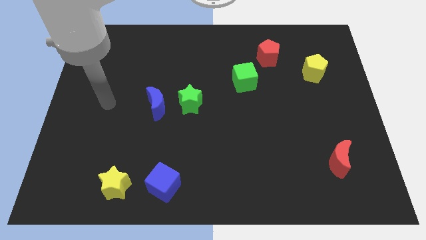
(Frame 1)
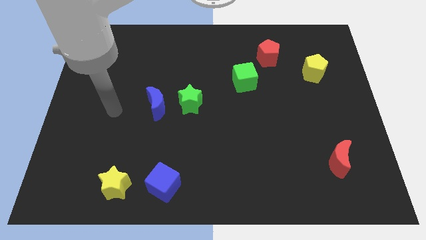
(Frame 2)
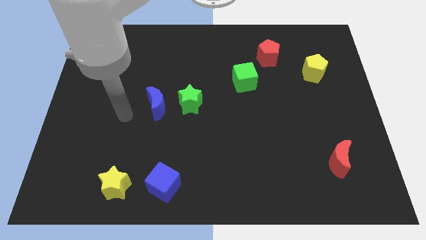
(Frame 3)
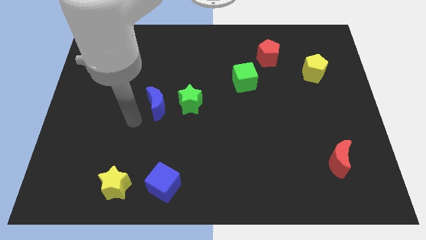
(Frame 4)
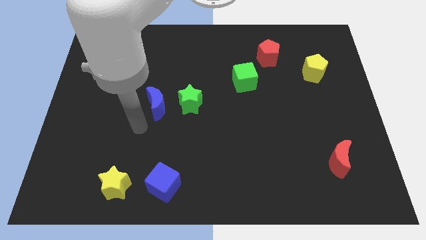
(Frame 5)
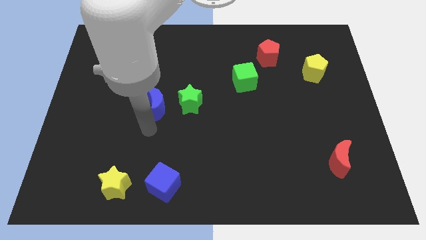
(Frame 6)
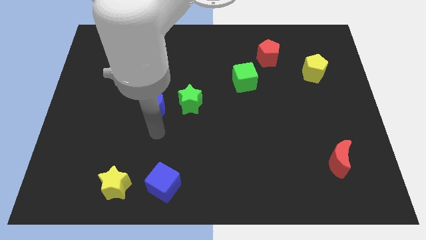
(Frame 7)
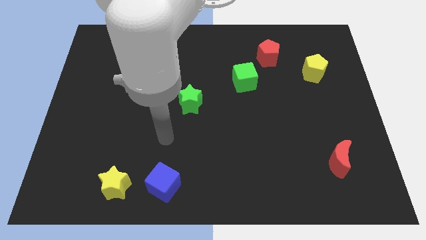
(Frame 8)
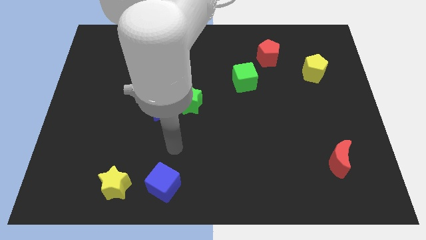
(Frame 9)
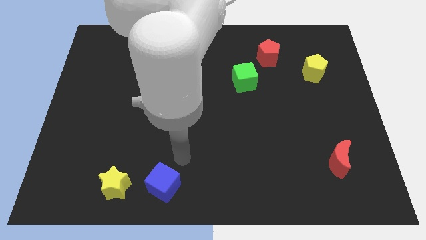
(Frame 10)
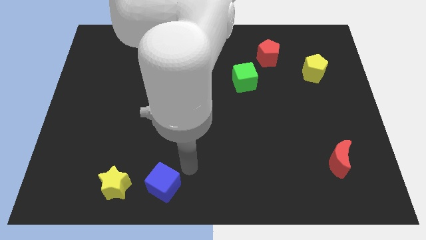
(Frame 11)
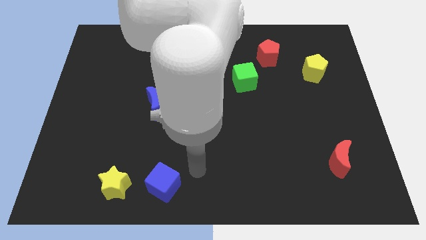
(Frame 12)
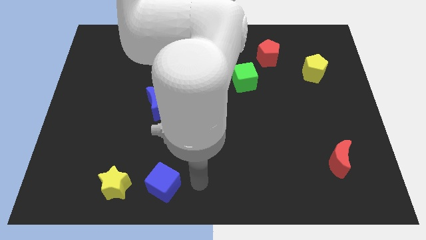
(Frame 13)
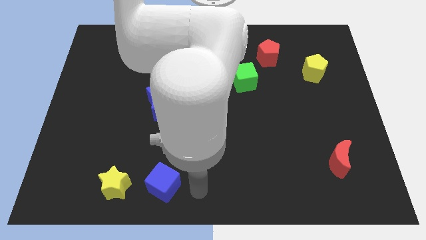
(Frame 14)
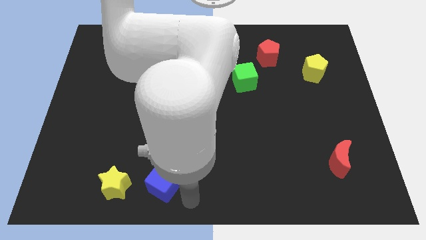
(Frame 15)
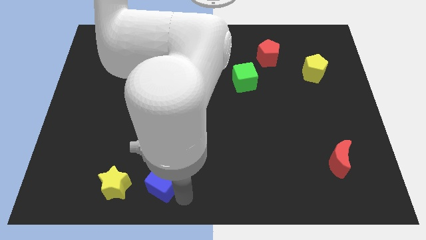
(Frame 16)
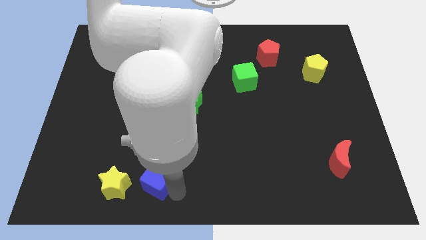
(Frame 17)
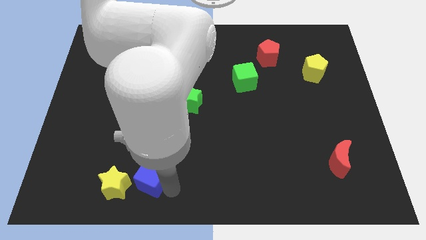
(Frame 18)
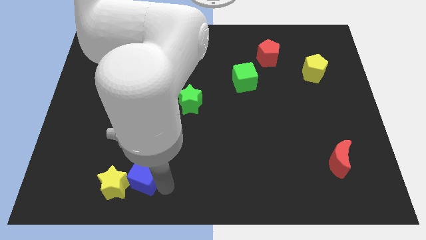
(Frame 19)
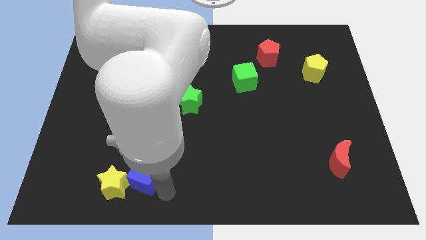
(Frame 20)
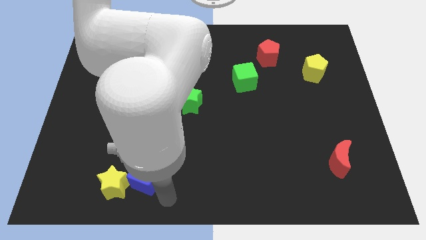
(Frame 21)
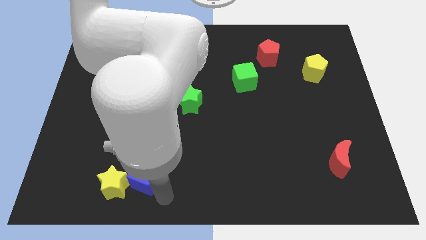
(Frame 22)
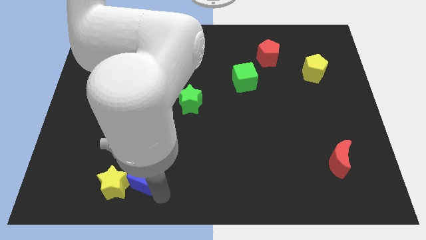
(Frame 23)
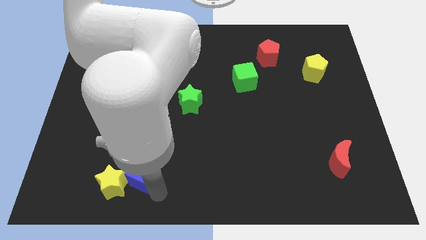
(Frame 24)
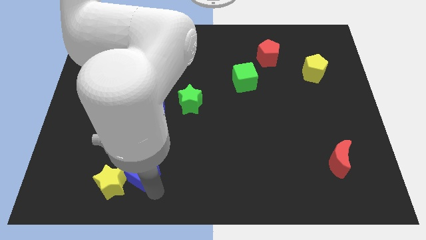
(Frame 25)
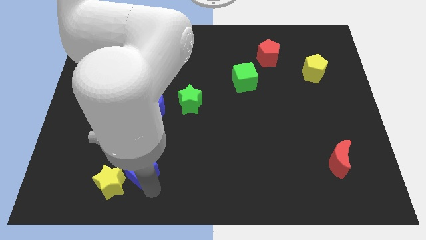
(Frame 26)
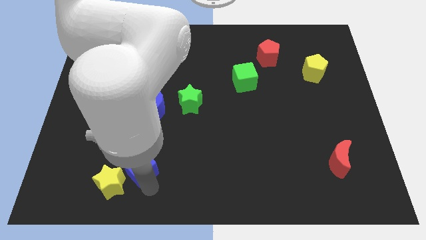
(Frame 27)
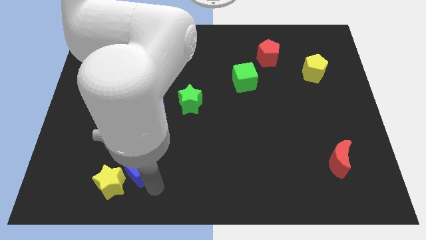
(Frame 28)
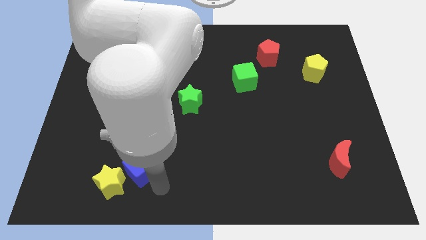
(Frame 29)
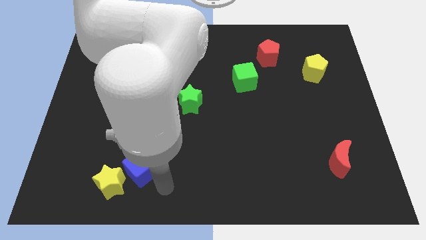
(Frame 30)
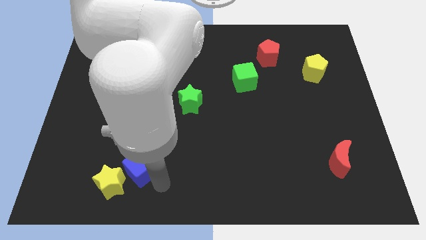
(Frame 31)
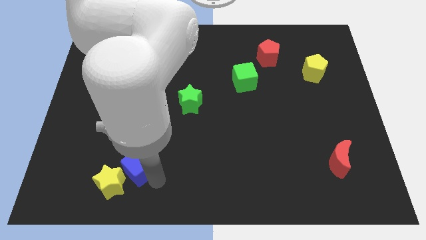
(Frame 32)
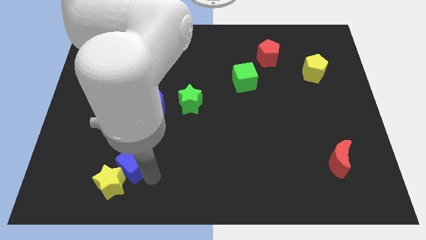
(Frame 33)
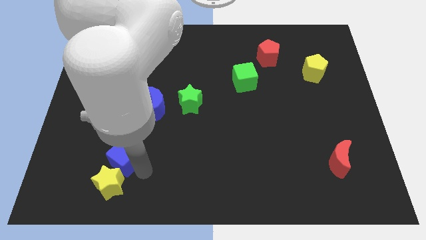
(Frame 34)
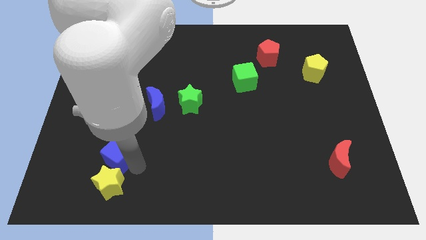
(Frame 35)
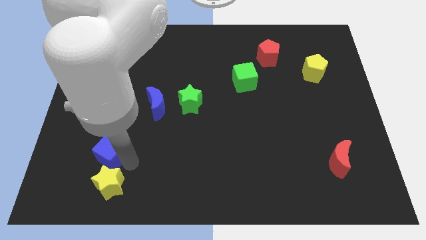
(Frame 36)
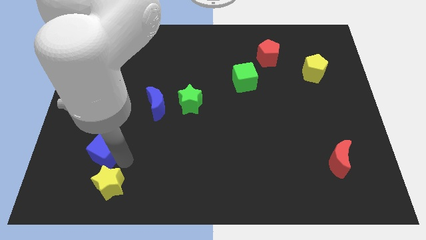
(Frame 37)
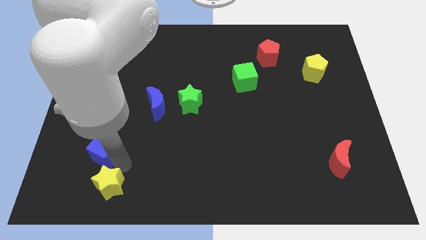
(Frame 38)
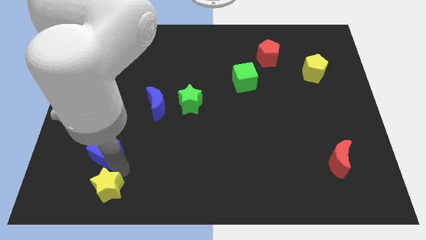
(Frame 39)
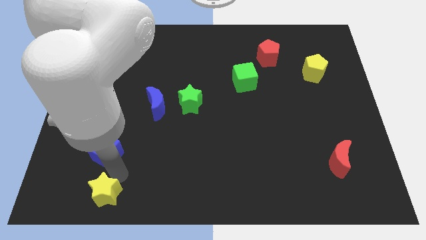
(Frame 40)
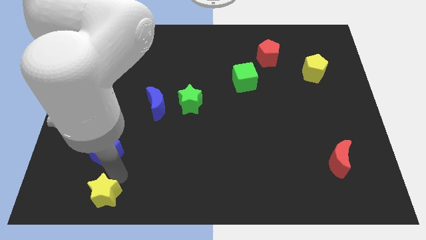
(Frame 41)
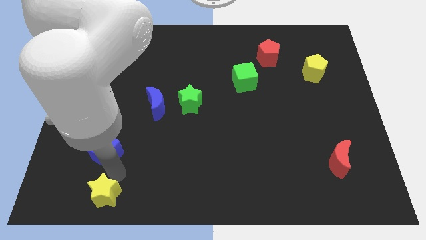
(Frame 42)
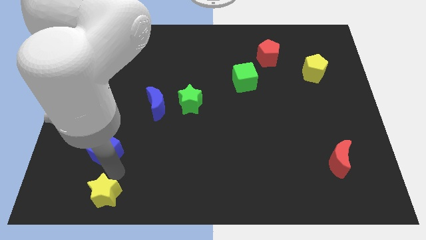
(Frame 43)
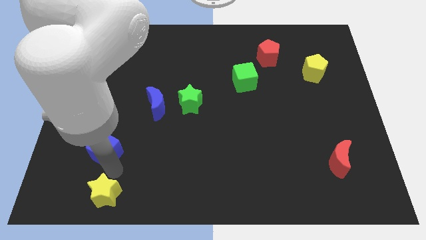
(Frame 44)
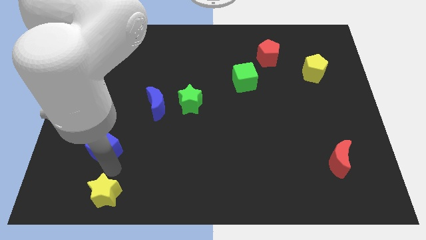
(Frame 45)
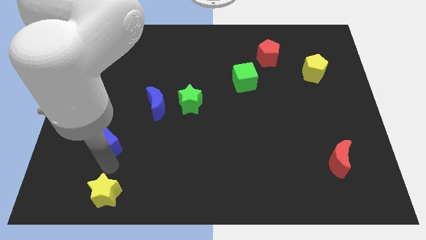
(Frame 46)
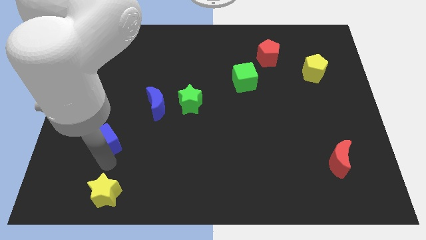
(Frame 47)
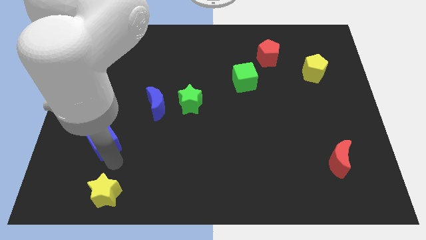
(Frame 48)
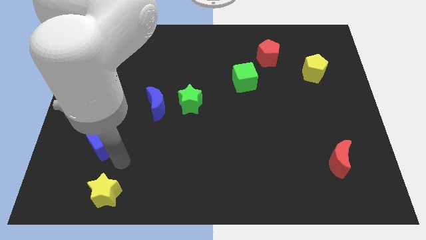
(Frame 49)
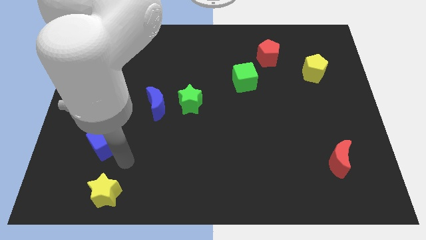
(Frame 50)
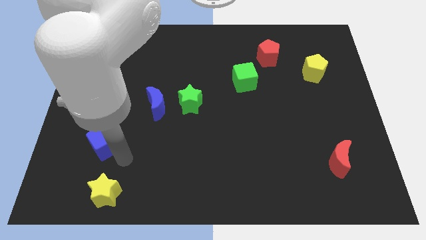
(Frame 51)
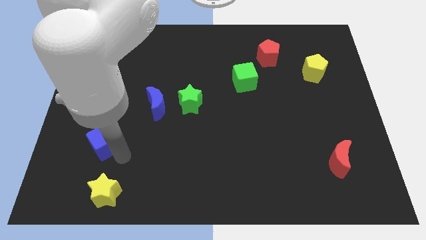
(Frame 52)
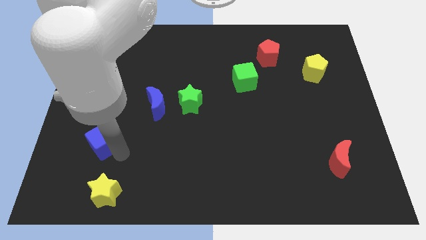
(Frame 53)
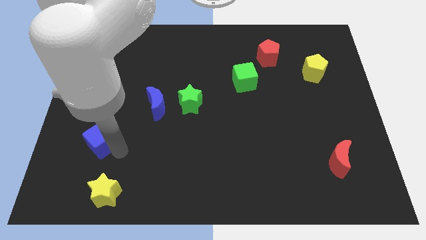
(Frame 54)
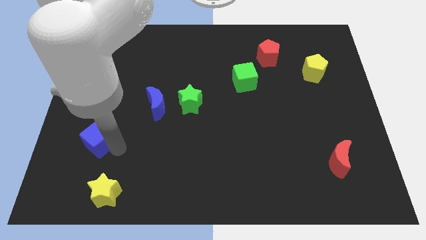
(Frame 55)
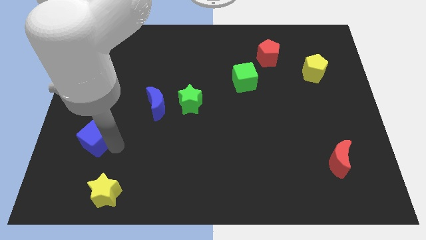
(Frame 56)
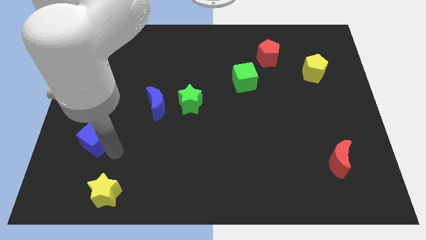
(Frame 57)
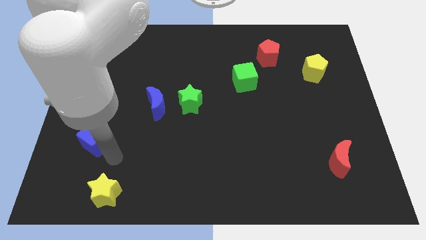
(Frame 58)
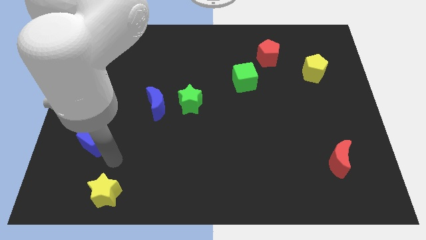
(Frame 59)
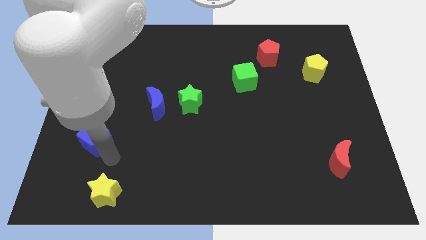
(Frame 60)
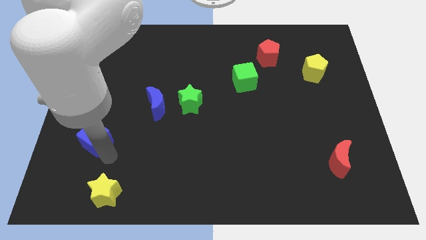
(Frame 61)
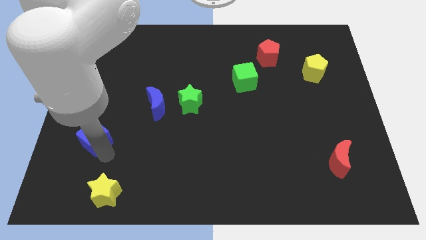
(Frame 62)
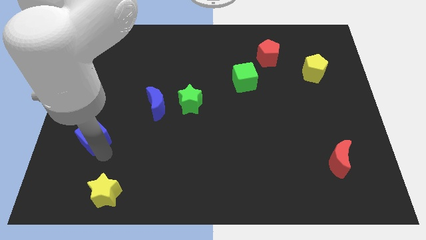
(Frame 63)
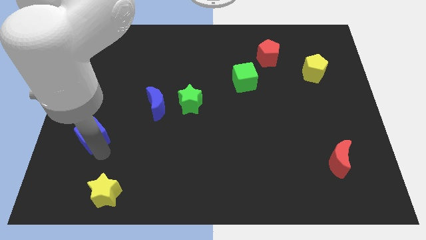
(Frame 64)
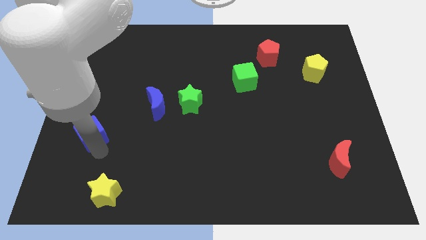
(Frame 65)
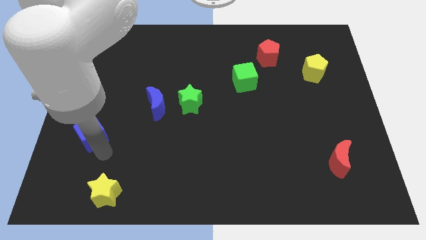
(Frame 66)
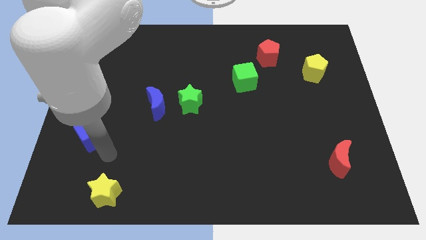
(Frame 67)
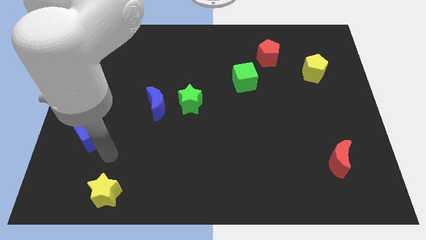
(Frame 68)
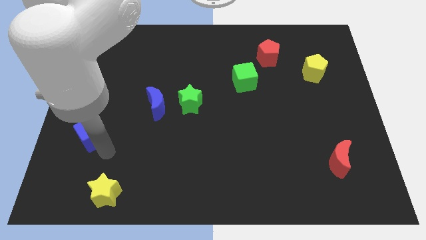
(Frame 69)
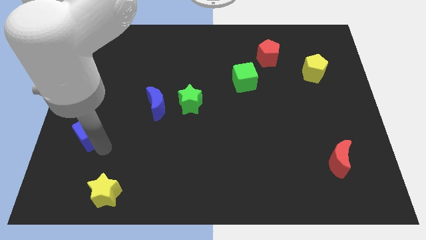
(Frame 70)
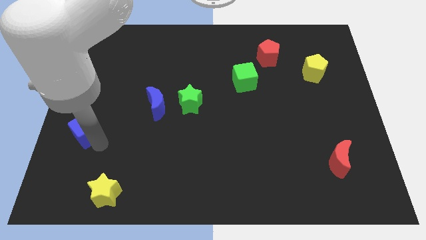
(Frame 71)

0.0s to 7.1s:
push the blue cube to the left side
